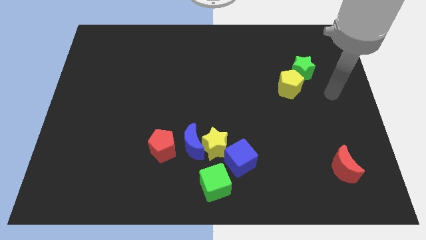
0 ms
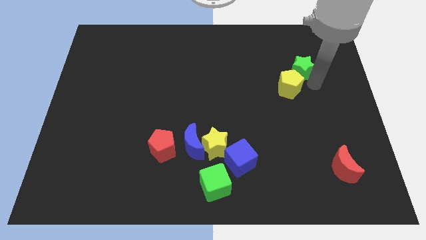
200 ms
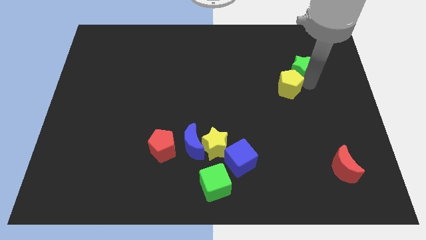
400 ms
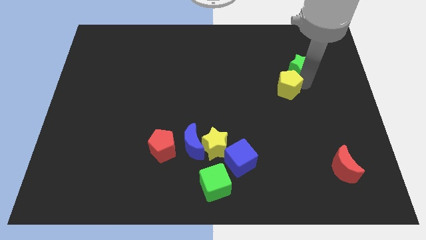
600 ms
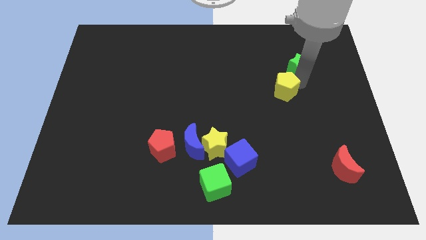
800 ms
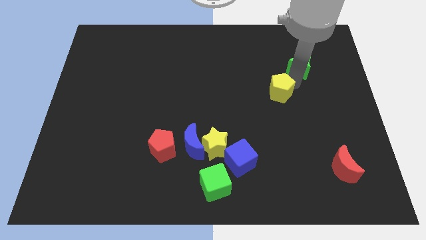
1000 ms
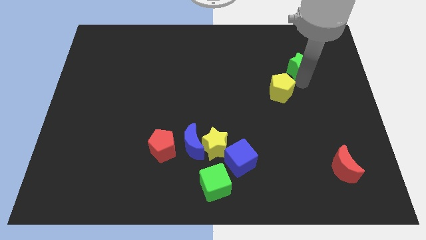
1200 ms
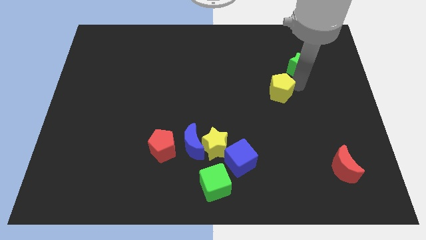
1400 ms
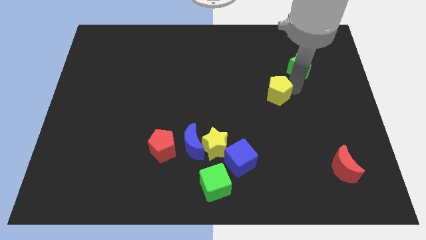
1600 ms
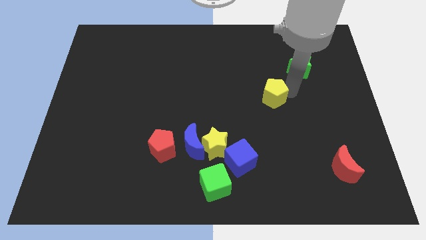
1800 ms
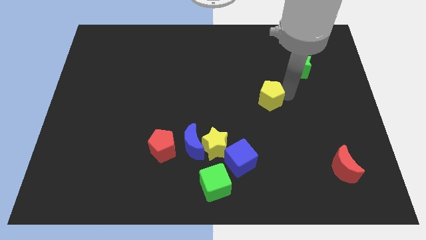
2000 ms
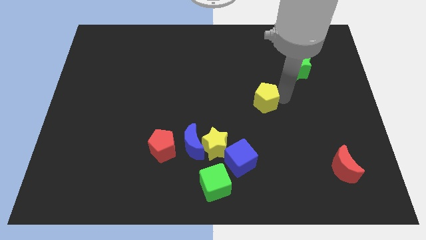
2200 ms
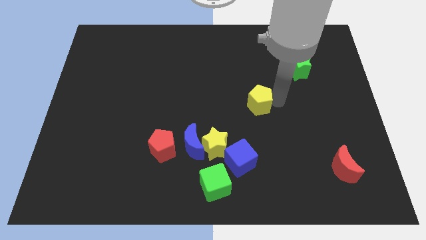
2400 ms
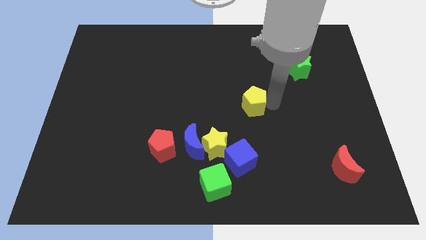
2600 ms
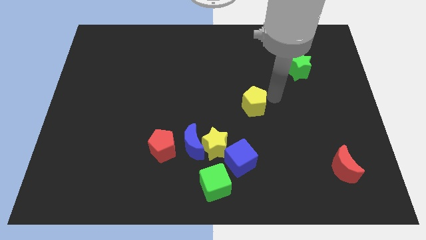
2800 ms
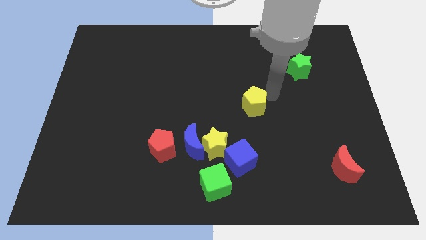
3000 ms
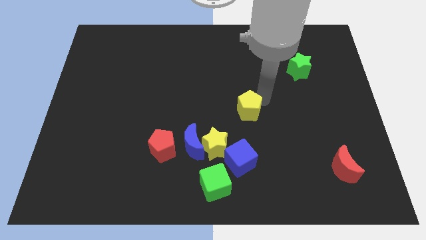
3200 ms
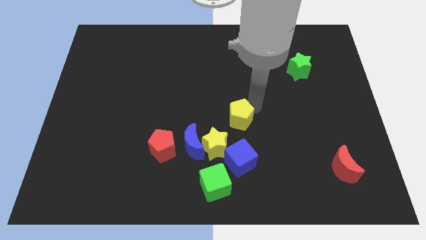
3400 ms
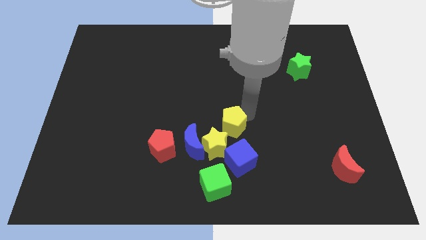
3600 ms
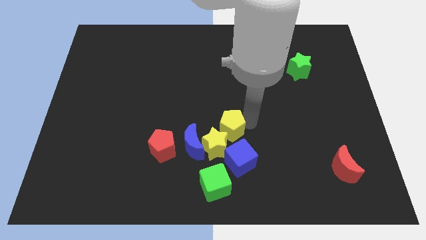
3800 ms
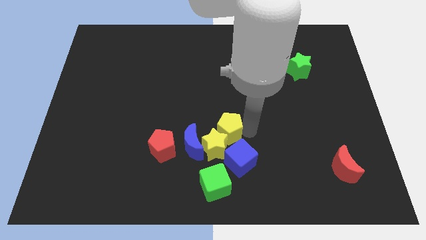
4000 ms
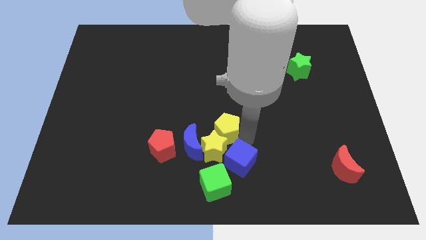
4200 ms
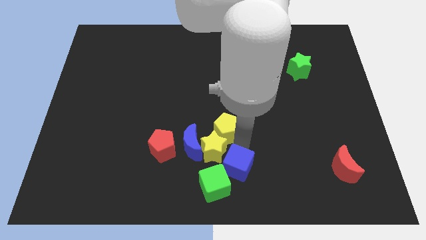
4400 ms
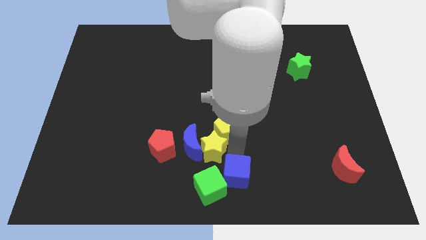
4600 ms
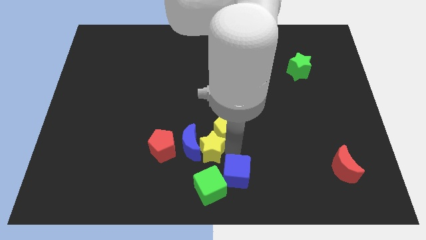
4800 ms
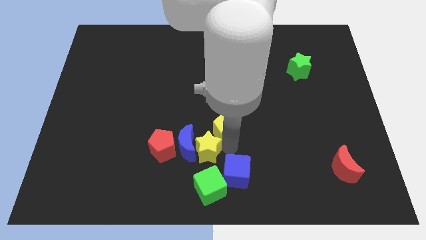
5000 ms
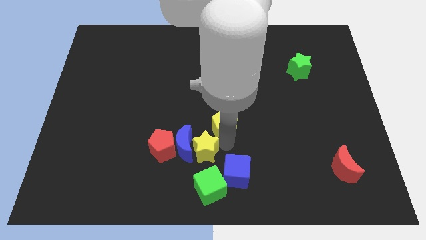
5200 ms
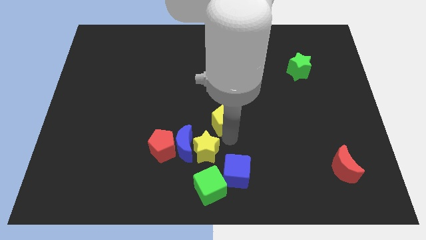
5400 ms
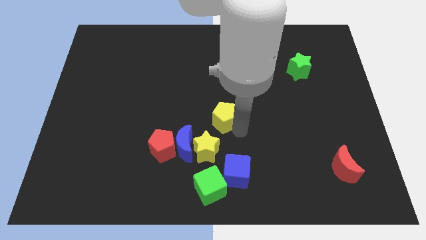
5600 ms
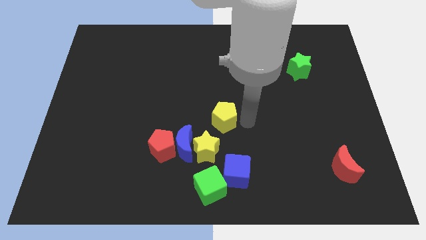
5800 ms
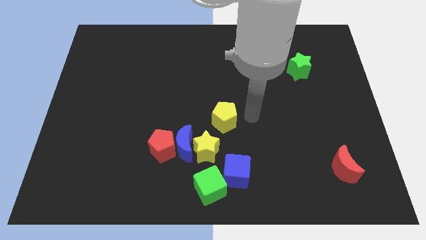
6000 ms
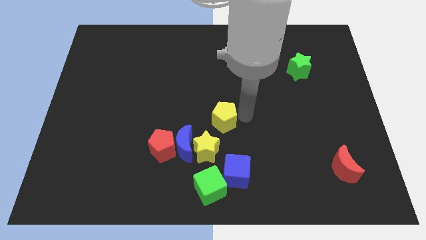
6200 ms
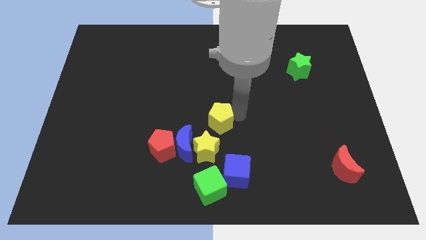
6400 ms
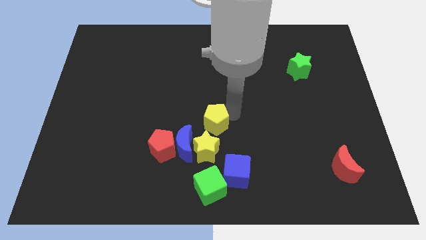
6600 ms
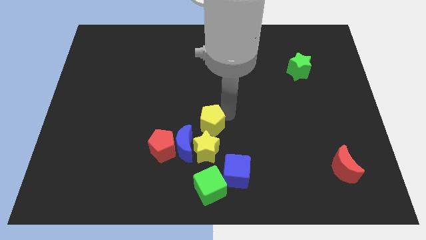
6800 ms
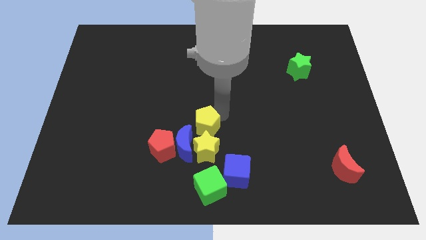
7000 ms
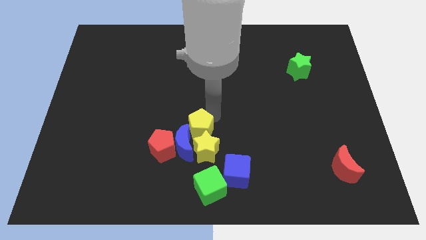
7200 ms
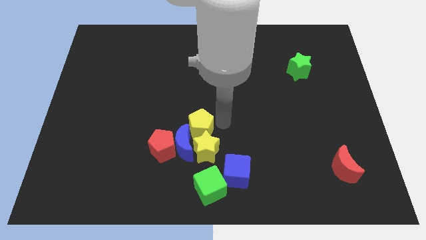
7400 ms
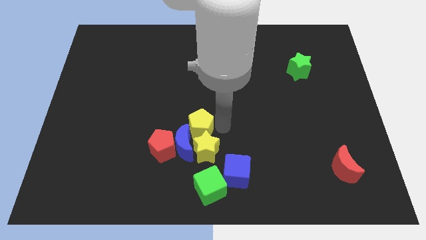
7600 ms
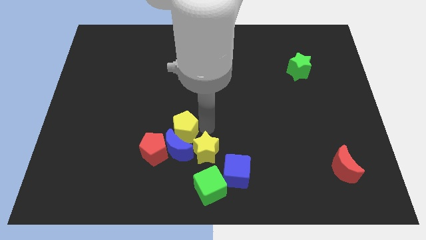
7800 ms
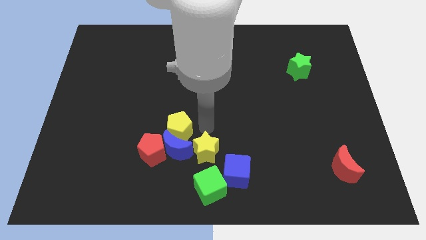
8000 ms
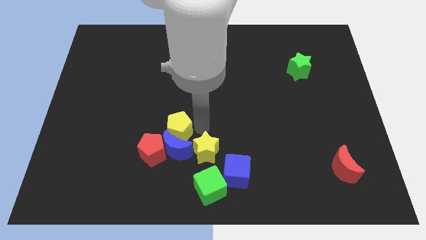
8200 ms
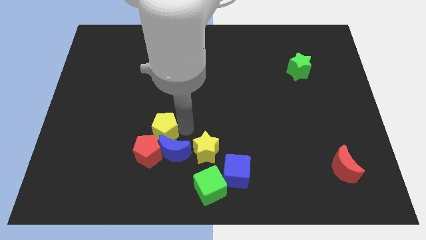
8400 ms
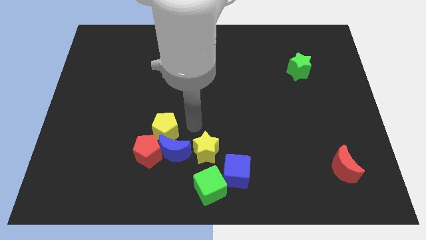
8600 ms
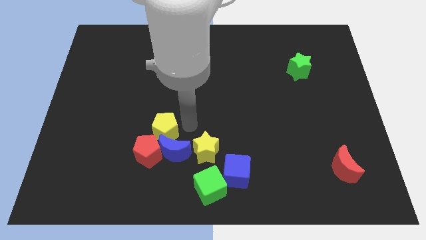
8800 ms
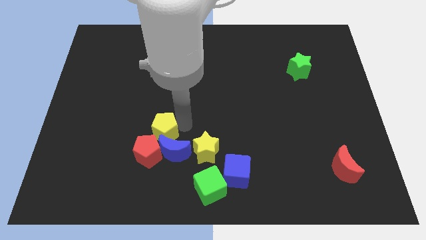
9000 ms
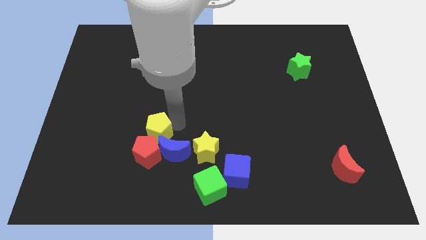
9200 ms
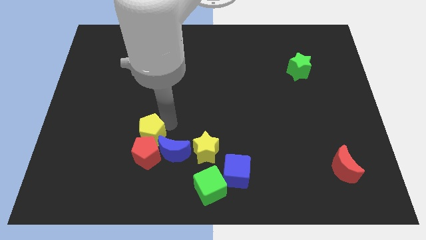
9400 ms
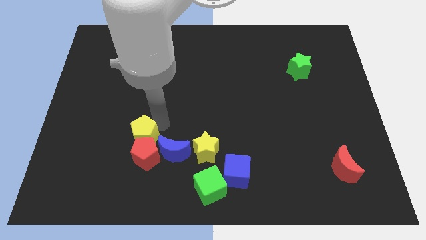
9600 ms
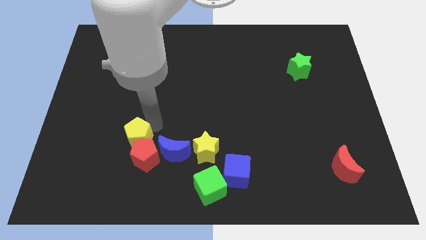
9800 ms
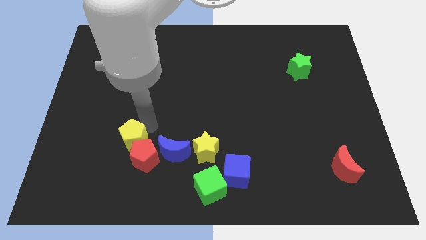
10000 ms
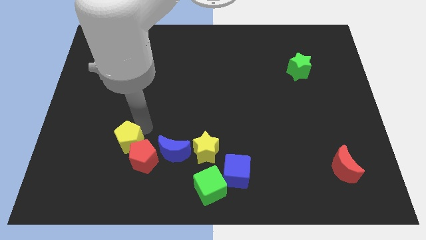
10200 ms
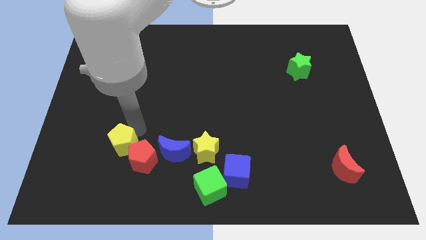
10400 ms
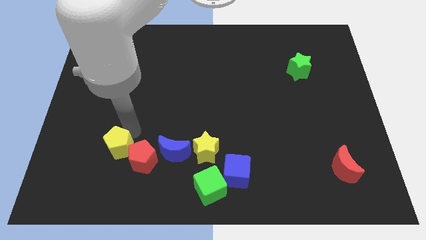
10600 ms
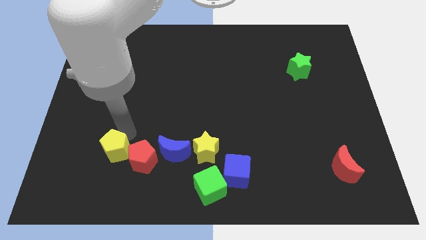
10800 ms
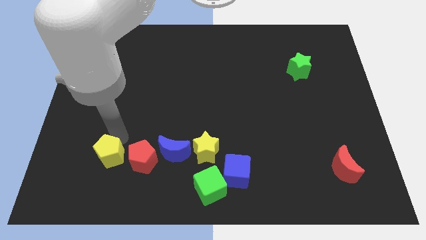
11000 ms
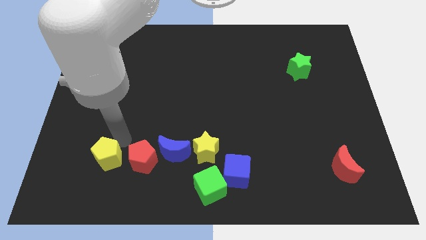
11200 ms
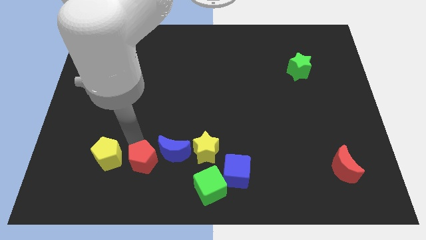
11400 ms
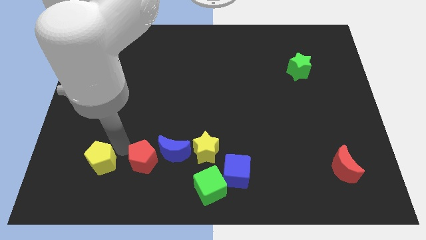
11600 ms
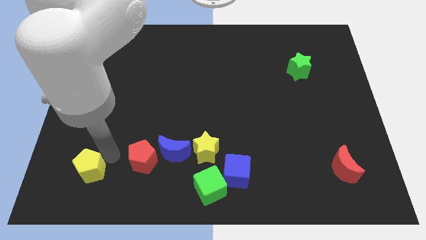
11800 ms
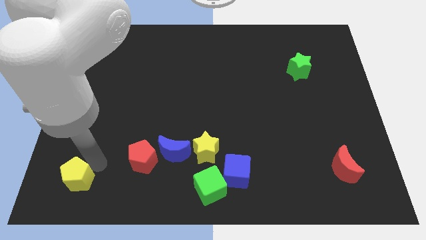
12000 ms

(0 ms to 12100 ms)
push the yellow pentagon to the bottom left of the board
